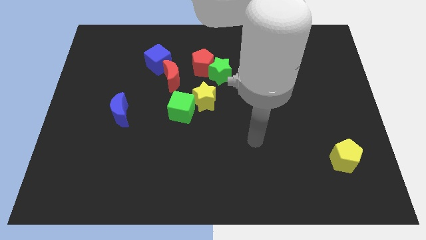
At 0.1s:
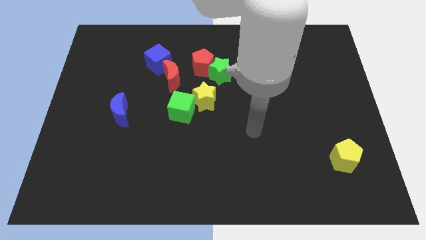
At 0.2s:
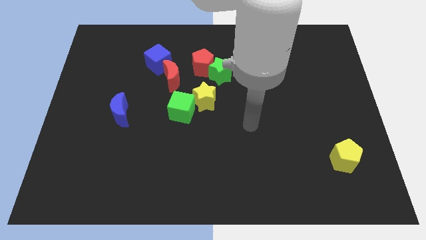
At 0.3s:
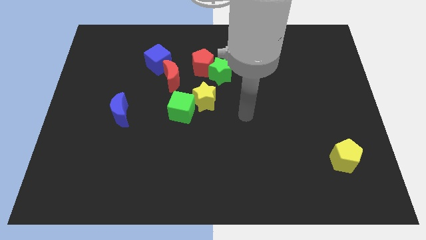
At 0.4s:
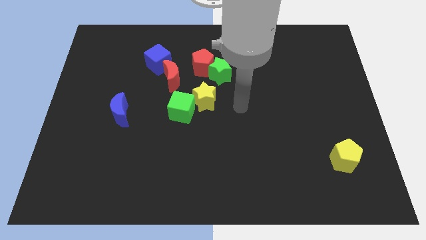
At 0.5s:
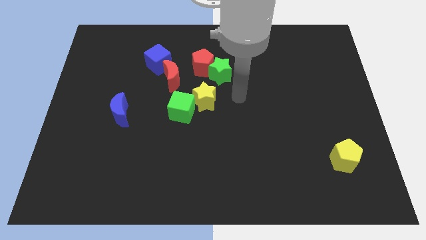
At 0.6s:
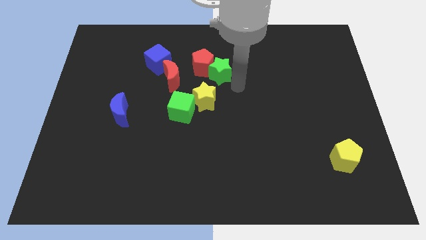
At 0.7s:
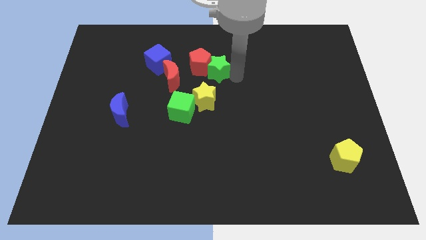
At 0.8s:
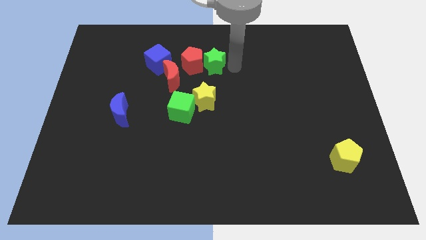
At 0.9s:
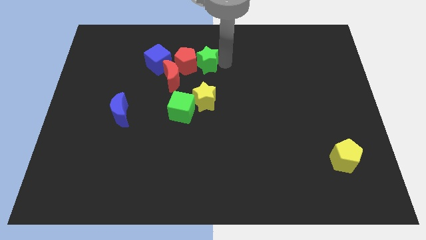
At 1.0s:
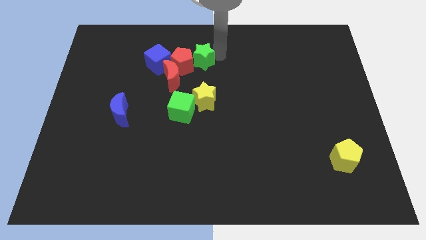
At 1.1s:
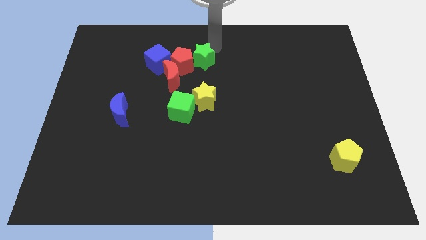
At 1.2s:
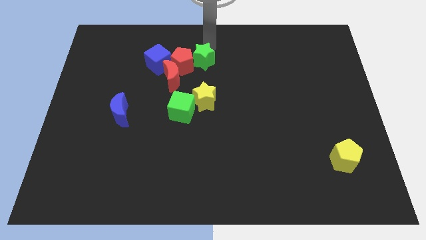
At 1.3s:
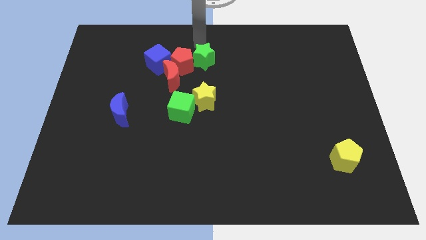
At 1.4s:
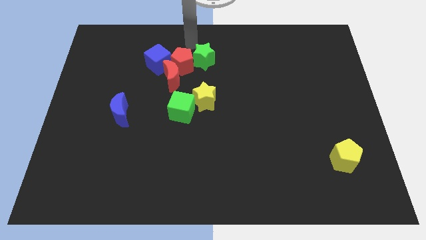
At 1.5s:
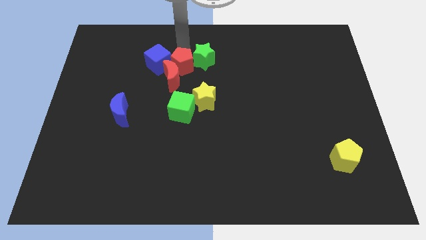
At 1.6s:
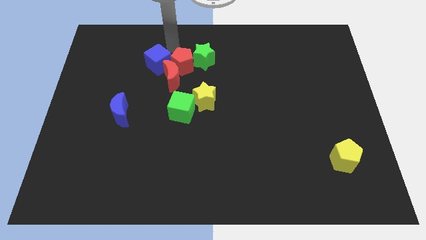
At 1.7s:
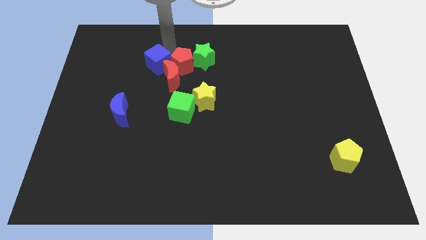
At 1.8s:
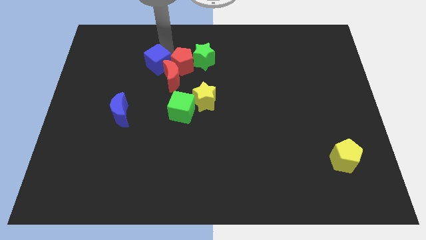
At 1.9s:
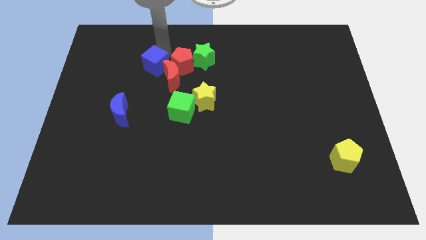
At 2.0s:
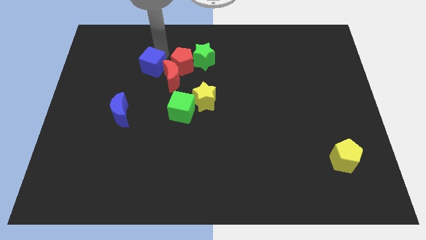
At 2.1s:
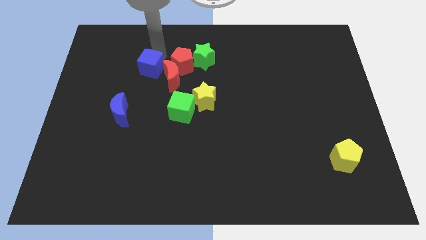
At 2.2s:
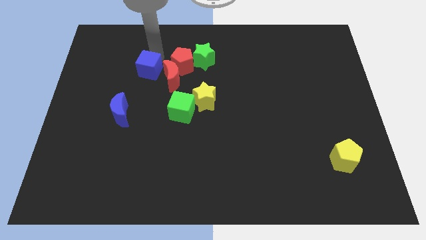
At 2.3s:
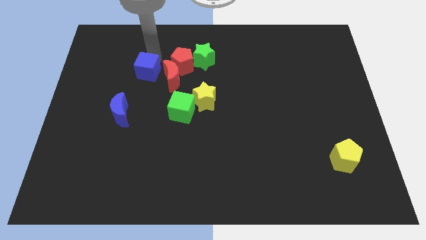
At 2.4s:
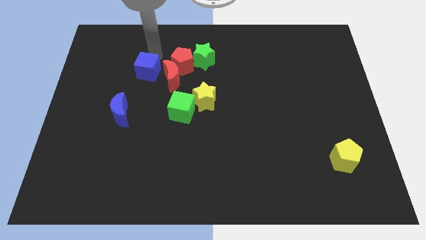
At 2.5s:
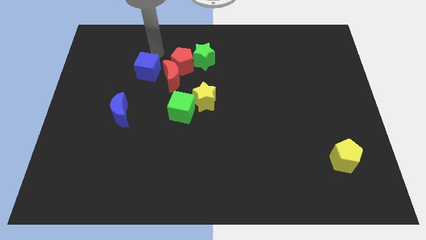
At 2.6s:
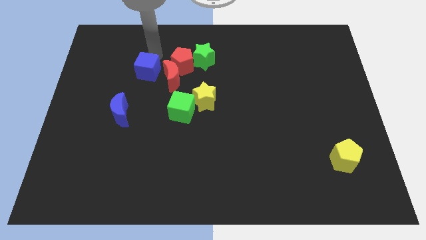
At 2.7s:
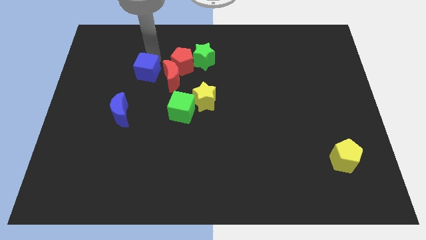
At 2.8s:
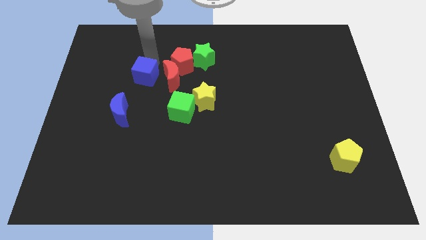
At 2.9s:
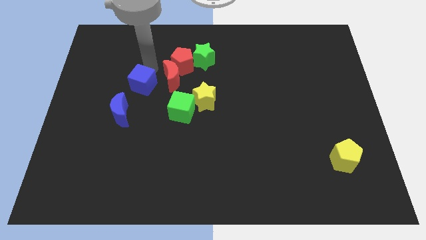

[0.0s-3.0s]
slide the blue cube downwards and left diagonally a little bit

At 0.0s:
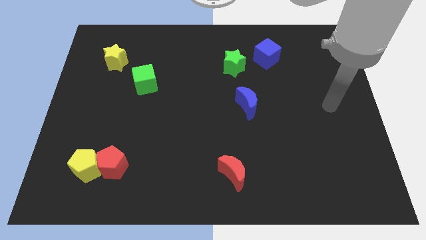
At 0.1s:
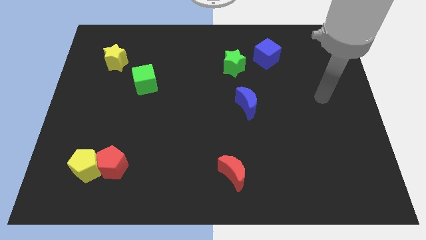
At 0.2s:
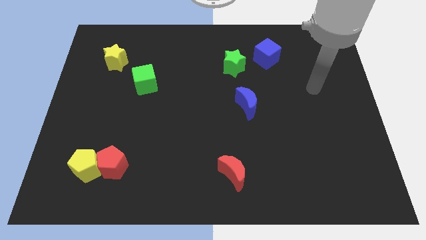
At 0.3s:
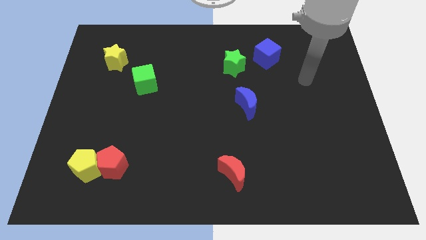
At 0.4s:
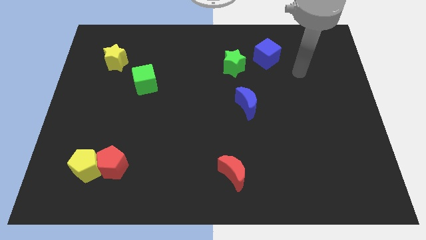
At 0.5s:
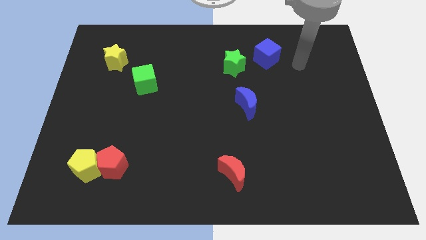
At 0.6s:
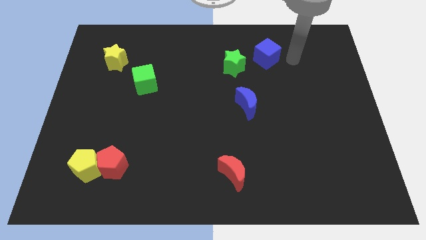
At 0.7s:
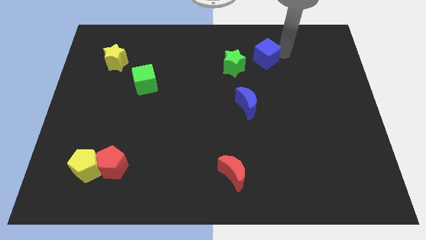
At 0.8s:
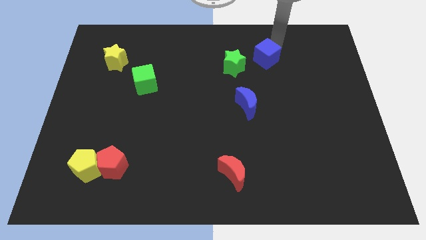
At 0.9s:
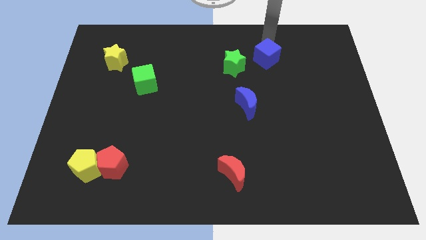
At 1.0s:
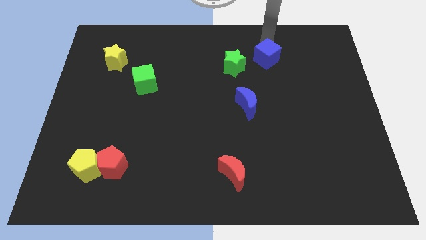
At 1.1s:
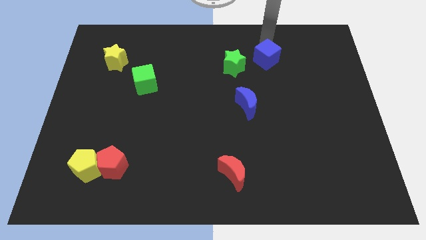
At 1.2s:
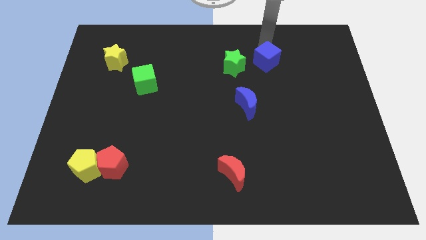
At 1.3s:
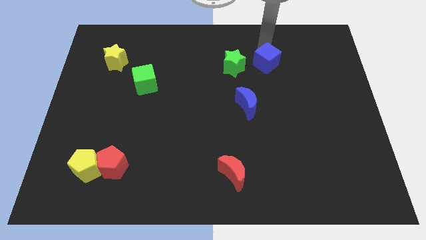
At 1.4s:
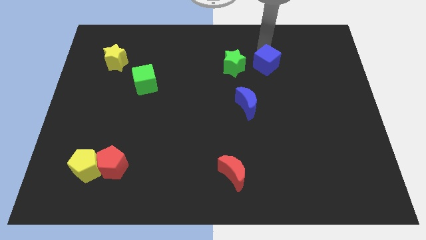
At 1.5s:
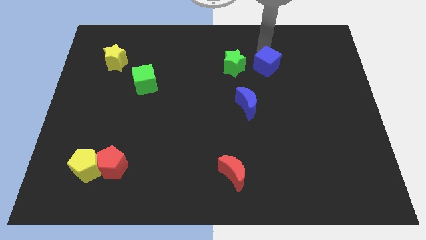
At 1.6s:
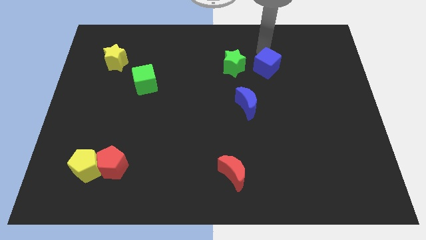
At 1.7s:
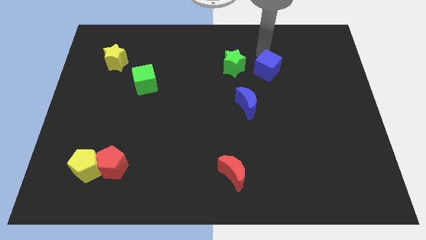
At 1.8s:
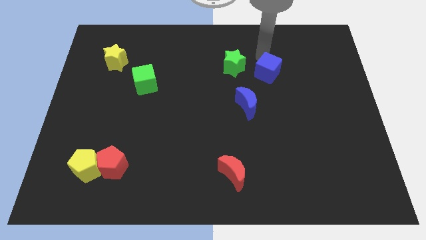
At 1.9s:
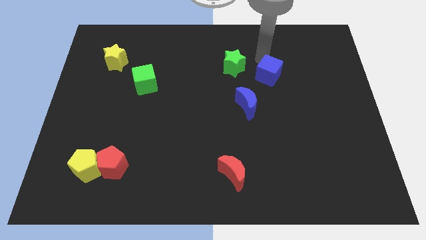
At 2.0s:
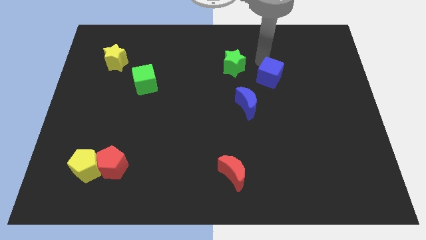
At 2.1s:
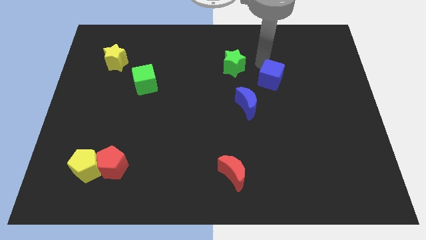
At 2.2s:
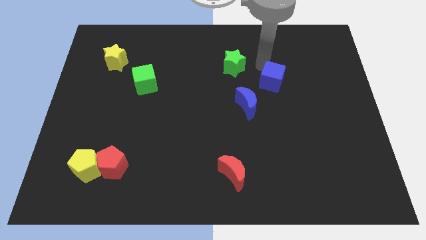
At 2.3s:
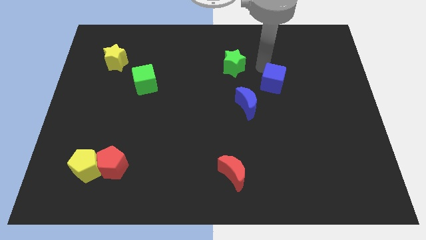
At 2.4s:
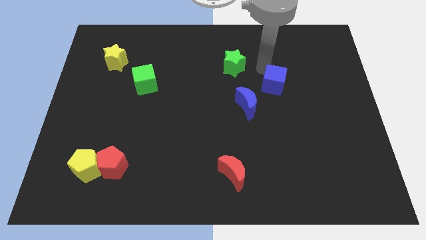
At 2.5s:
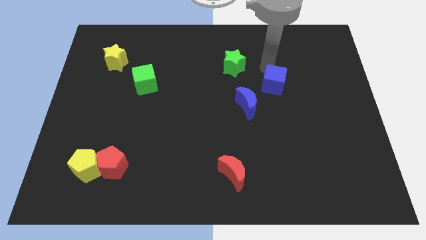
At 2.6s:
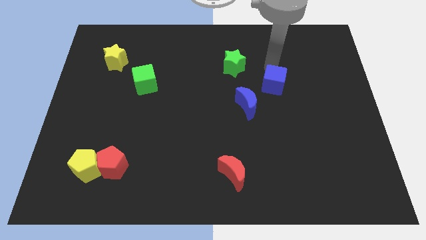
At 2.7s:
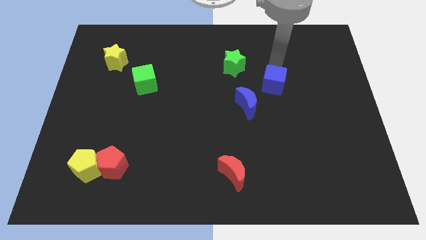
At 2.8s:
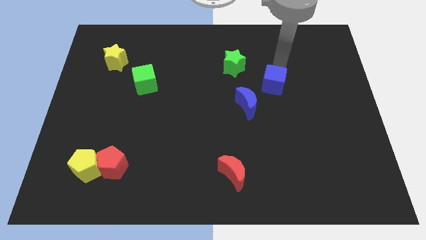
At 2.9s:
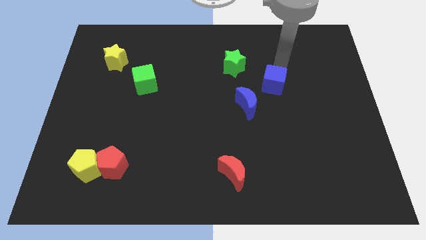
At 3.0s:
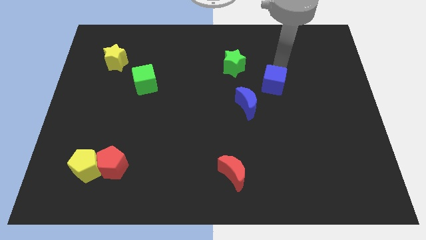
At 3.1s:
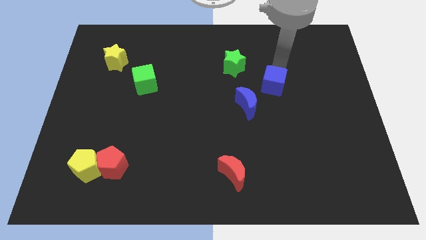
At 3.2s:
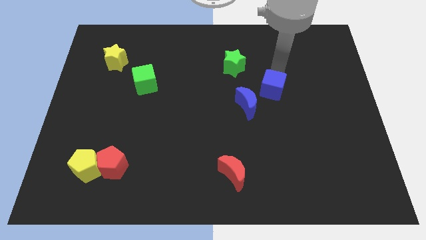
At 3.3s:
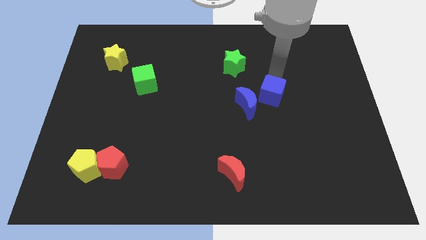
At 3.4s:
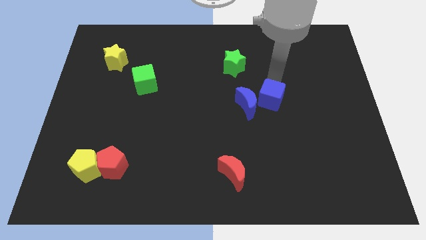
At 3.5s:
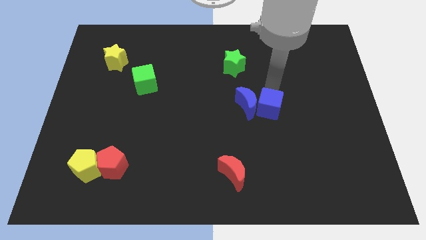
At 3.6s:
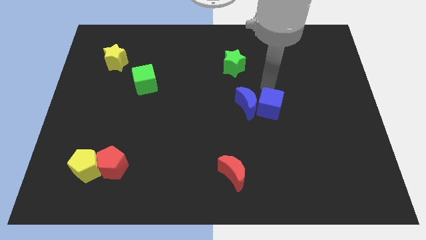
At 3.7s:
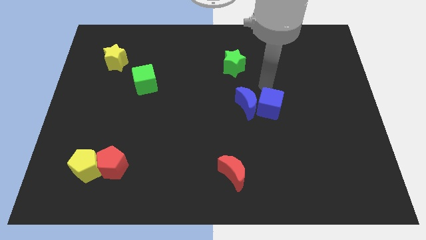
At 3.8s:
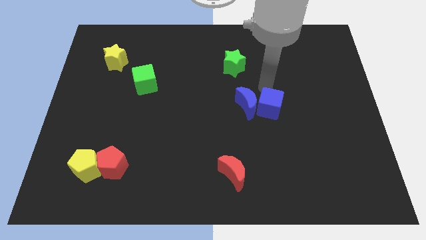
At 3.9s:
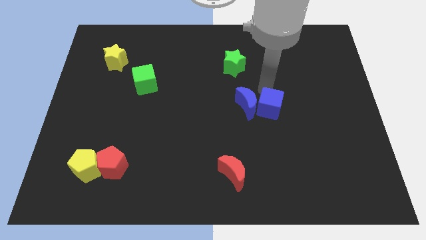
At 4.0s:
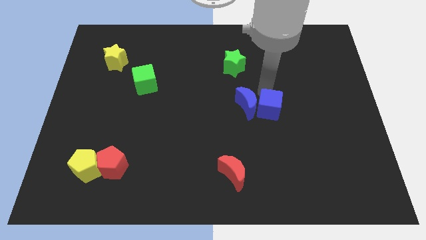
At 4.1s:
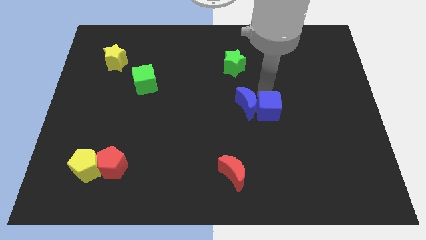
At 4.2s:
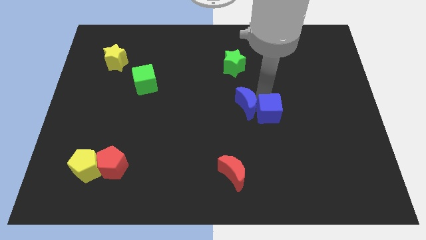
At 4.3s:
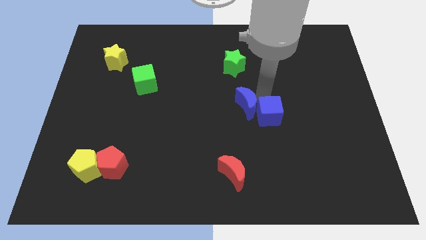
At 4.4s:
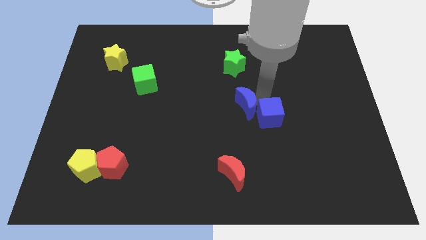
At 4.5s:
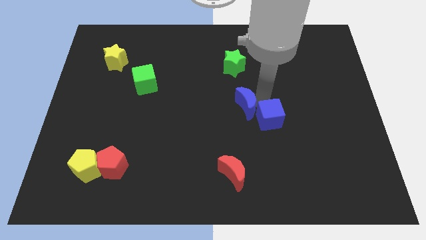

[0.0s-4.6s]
push the blue cube downwards

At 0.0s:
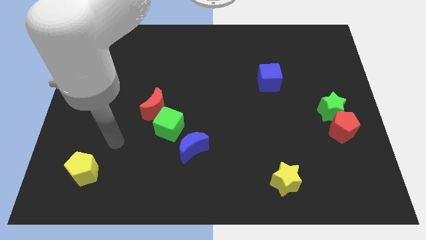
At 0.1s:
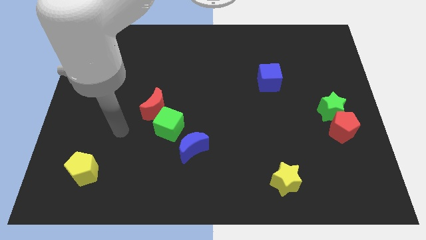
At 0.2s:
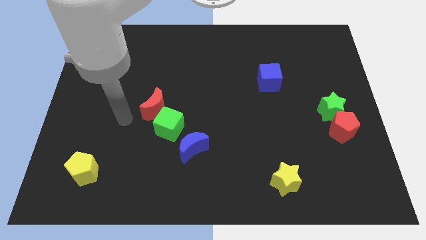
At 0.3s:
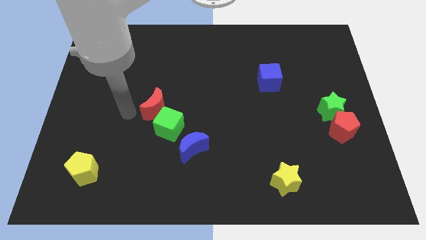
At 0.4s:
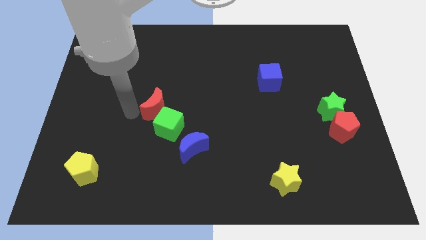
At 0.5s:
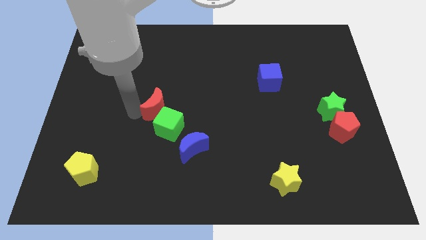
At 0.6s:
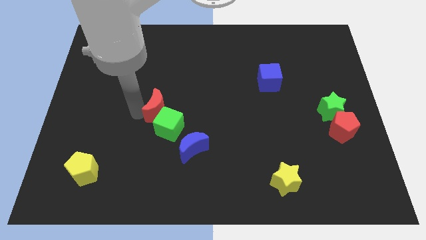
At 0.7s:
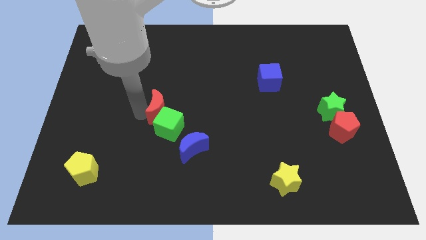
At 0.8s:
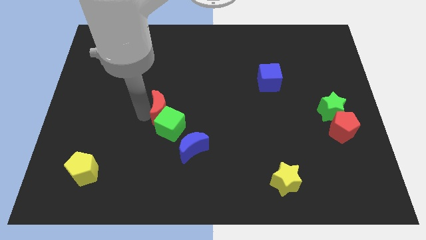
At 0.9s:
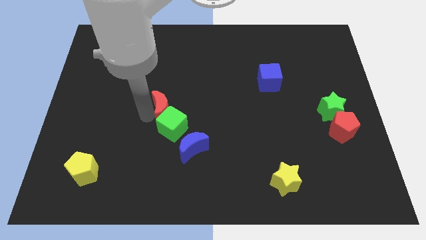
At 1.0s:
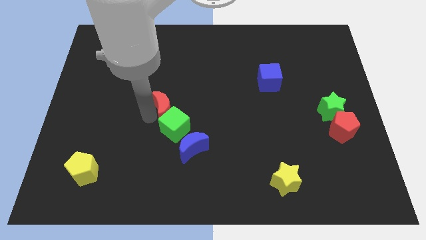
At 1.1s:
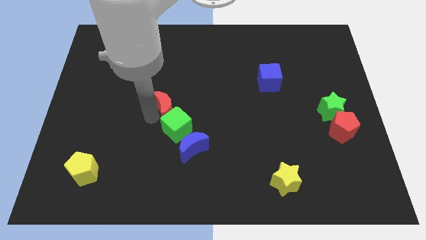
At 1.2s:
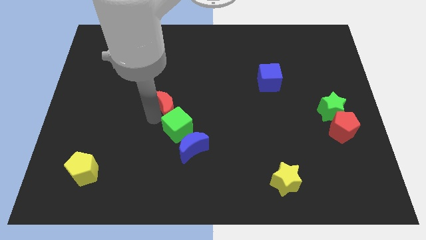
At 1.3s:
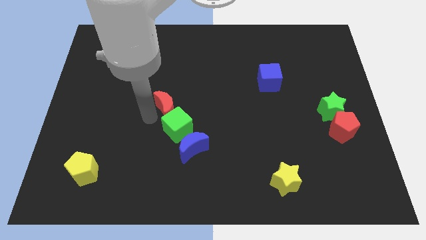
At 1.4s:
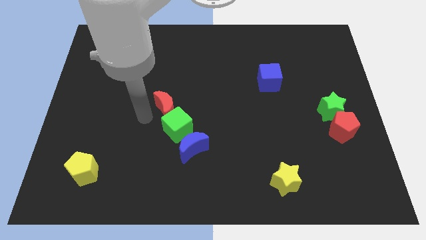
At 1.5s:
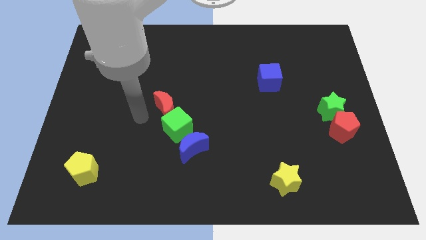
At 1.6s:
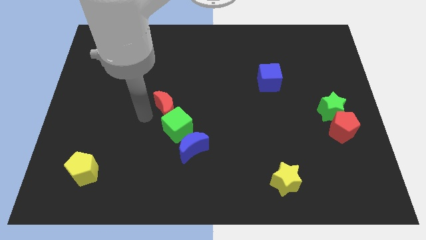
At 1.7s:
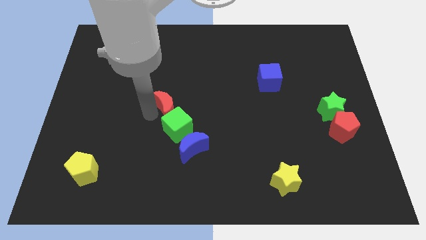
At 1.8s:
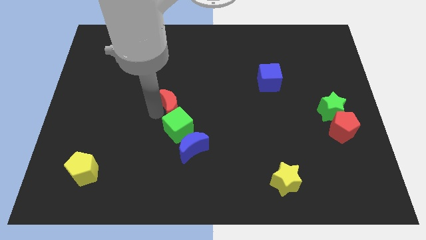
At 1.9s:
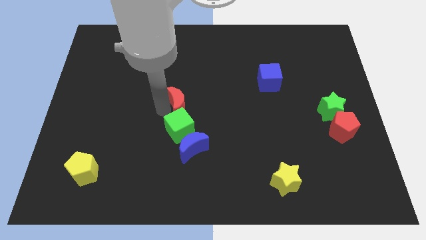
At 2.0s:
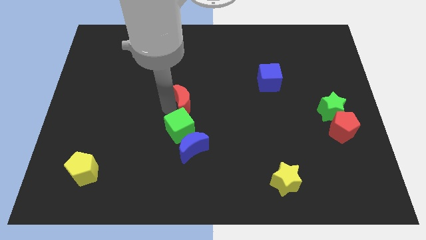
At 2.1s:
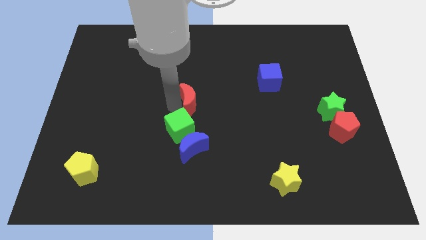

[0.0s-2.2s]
slightly move the red moon to the right
